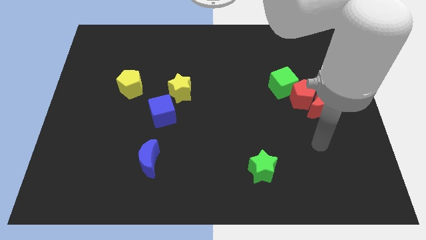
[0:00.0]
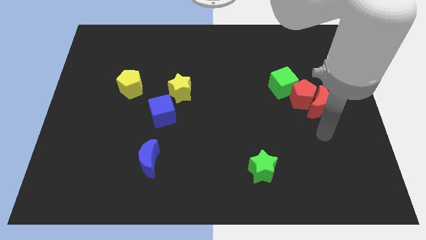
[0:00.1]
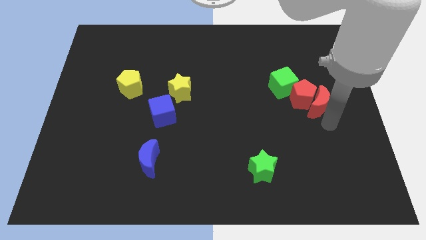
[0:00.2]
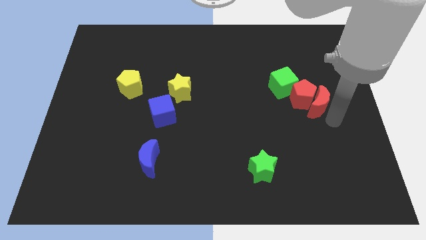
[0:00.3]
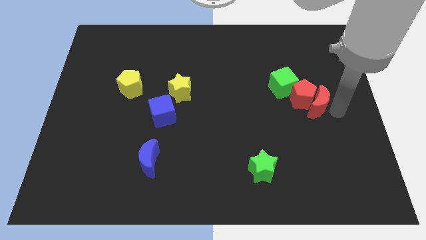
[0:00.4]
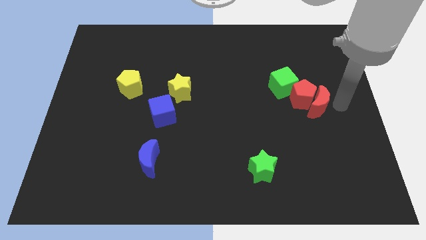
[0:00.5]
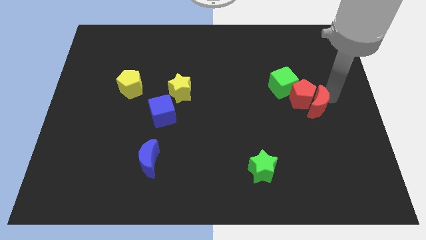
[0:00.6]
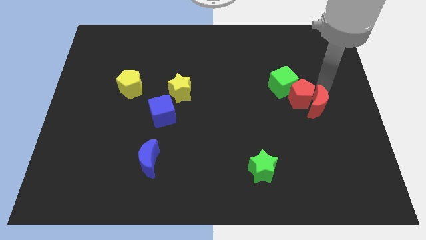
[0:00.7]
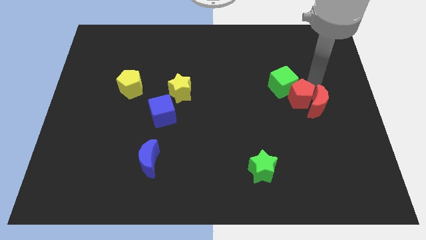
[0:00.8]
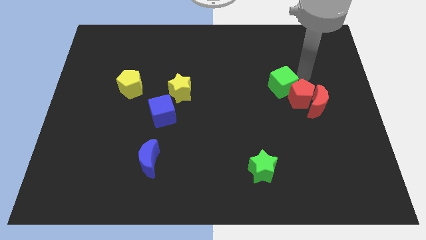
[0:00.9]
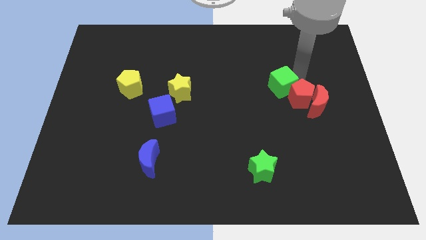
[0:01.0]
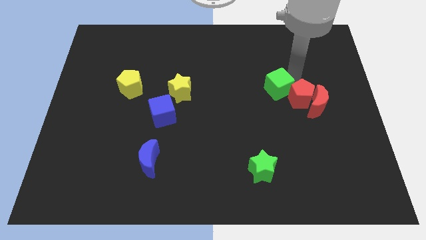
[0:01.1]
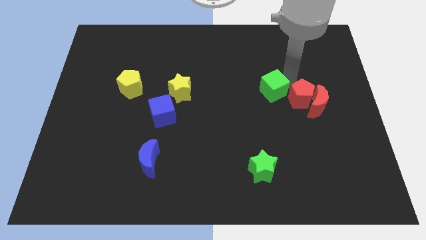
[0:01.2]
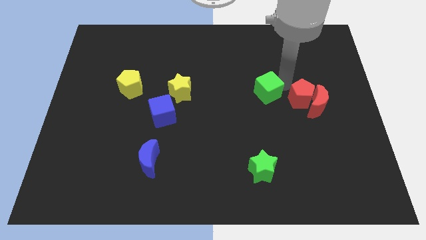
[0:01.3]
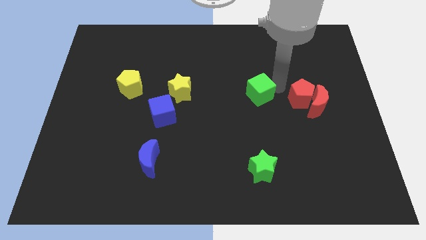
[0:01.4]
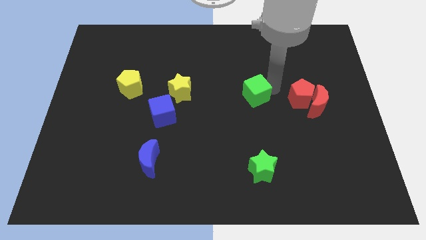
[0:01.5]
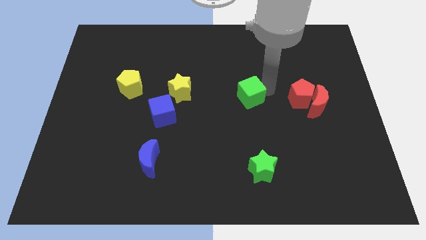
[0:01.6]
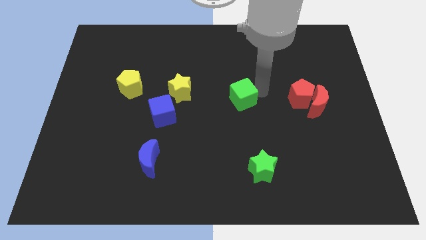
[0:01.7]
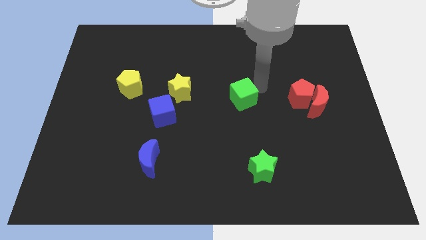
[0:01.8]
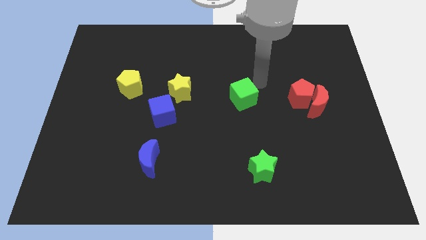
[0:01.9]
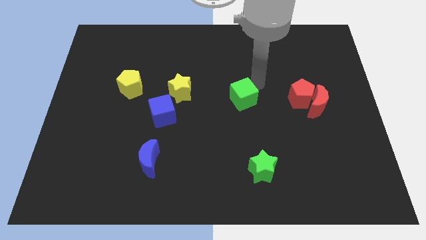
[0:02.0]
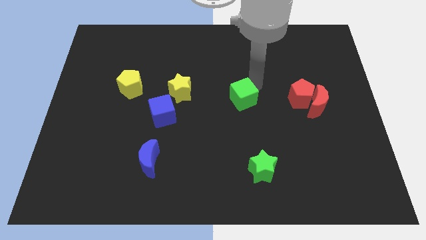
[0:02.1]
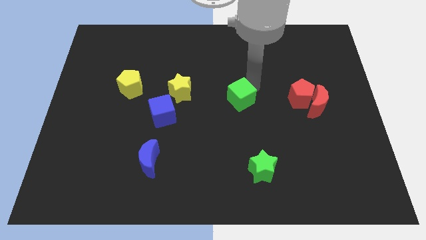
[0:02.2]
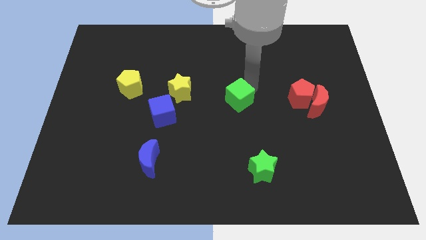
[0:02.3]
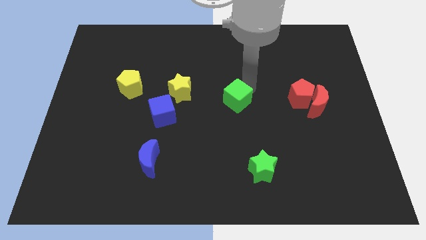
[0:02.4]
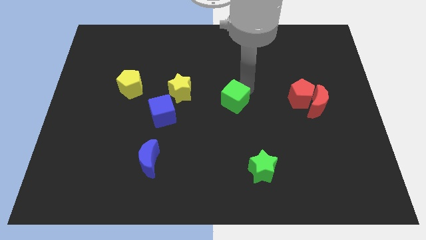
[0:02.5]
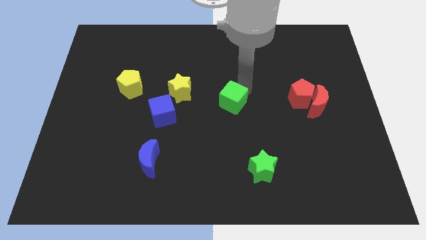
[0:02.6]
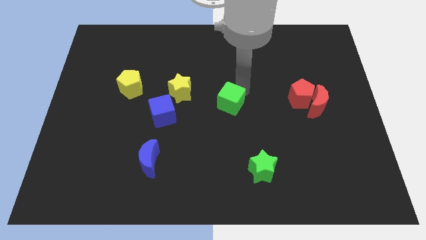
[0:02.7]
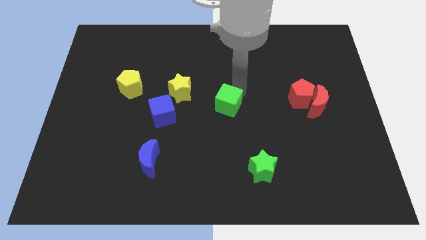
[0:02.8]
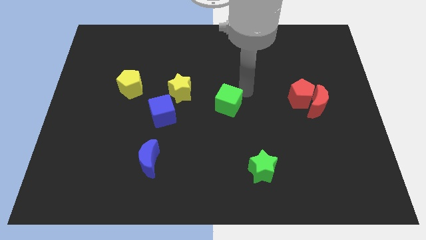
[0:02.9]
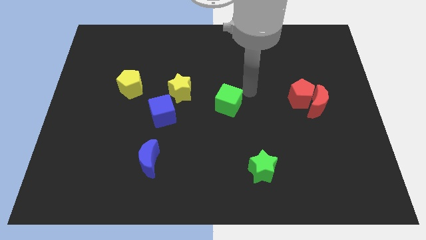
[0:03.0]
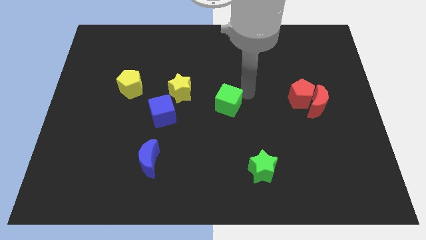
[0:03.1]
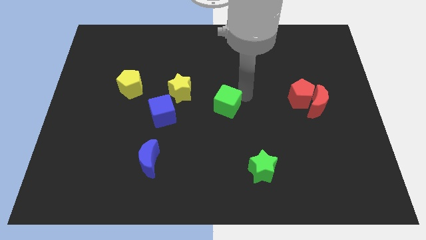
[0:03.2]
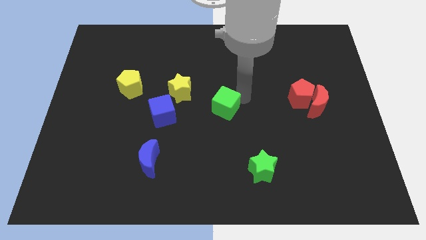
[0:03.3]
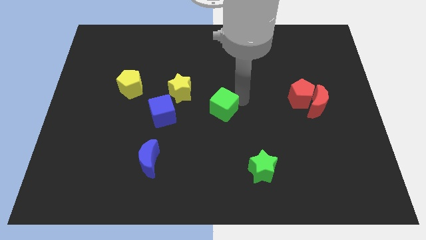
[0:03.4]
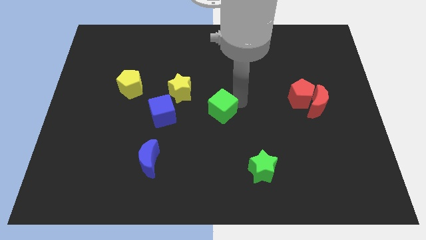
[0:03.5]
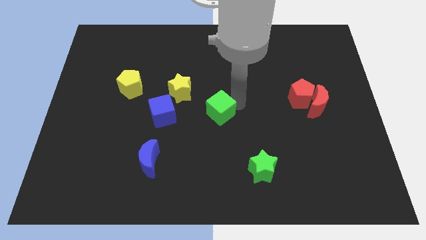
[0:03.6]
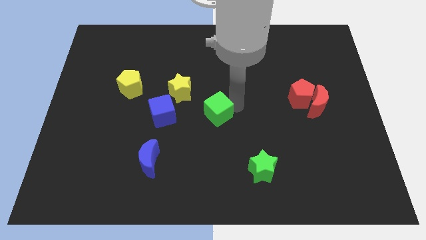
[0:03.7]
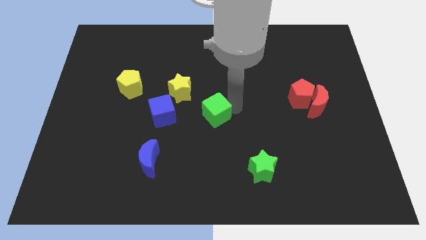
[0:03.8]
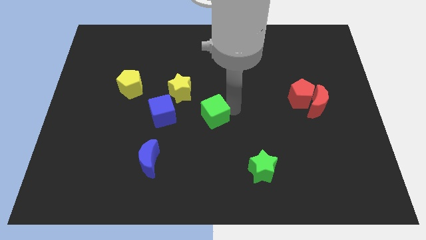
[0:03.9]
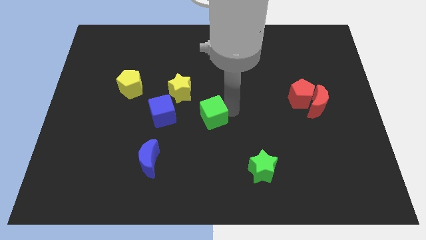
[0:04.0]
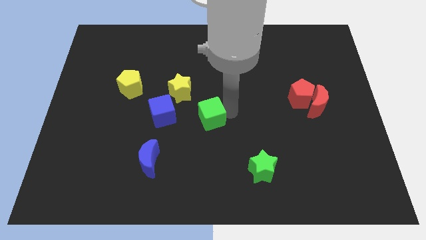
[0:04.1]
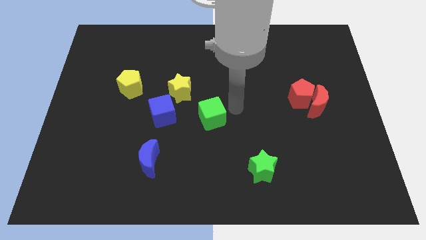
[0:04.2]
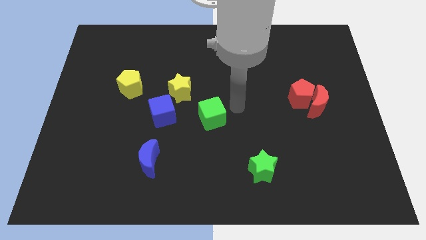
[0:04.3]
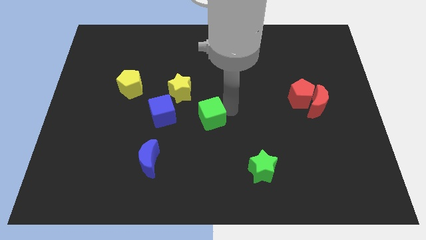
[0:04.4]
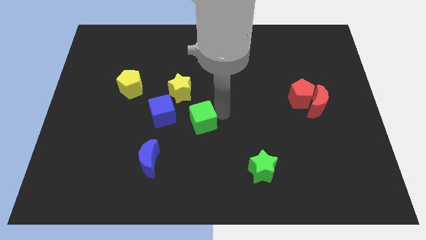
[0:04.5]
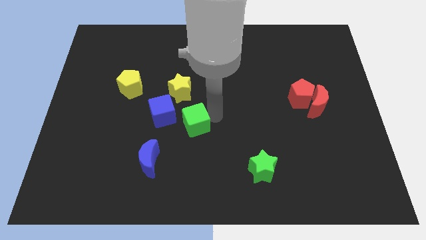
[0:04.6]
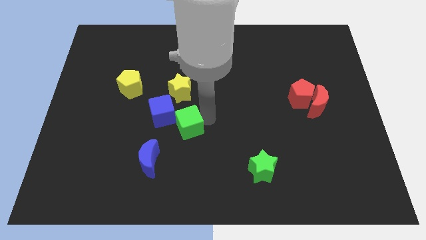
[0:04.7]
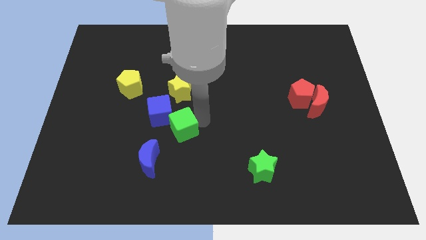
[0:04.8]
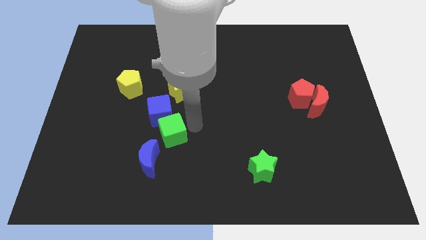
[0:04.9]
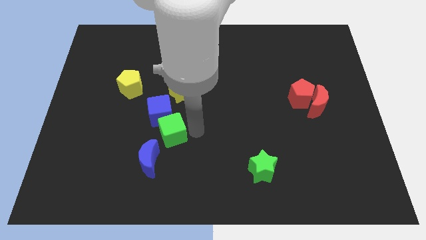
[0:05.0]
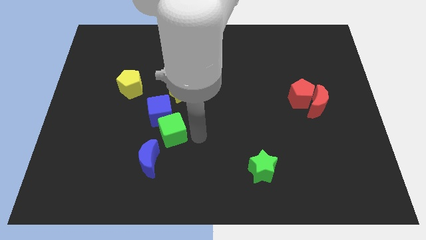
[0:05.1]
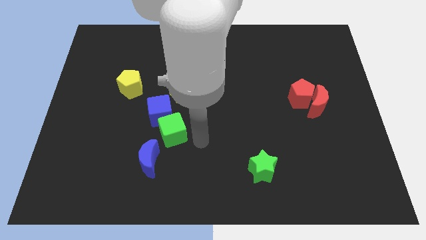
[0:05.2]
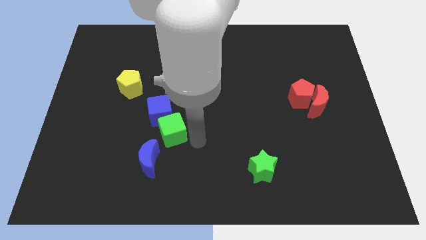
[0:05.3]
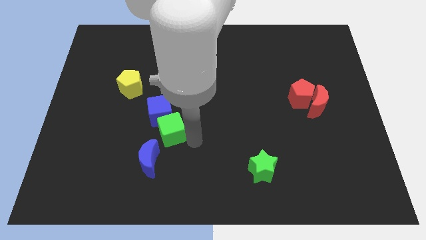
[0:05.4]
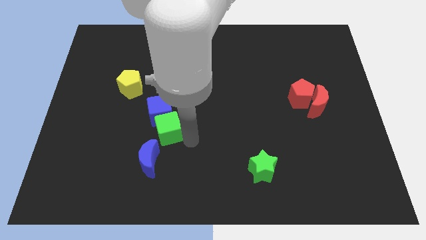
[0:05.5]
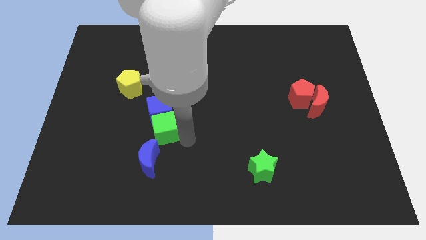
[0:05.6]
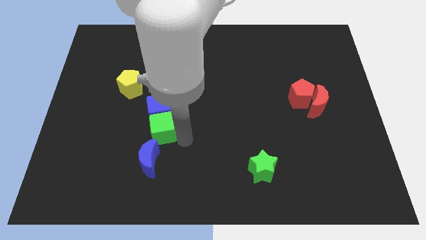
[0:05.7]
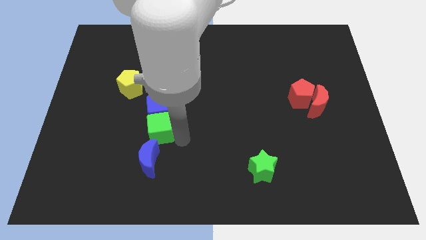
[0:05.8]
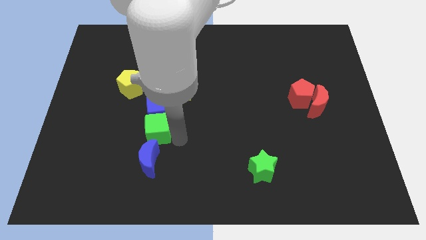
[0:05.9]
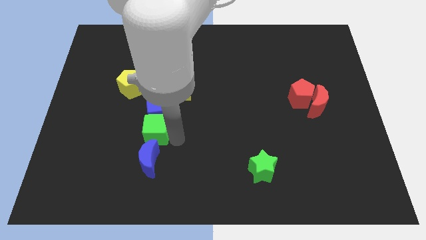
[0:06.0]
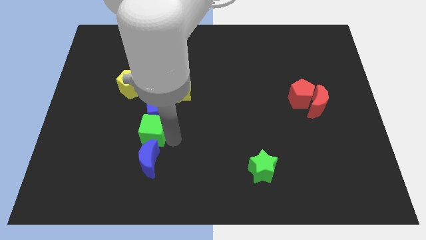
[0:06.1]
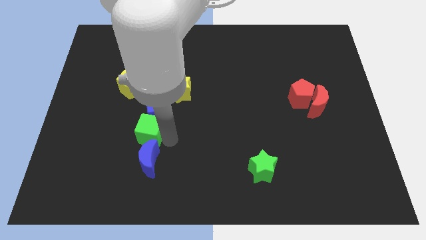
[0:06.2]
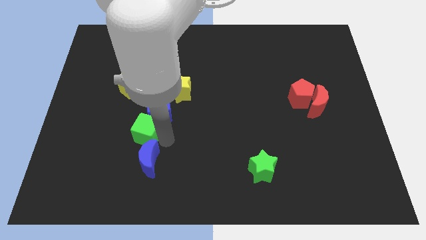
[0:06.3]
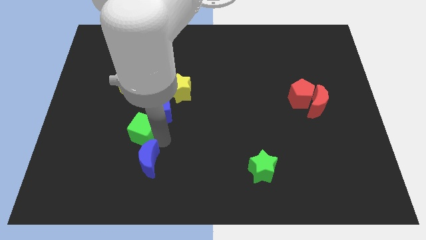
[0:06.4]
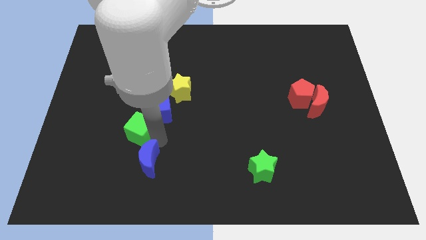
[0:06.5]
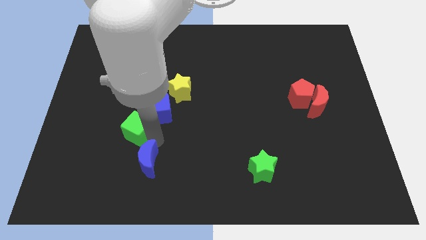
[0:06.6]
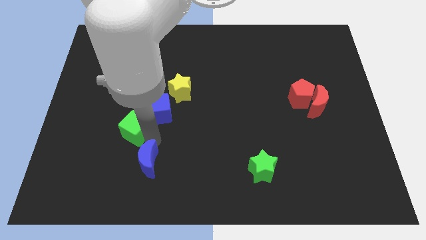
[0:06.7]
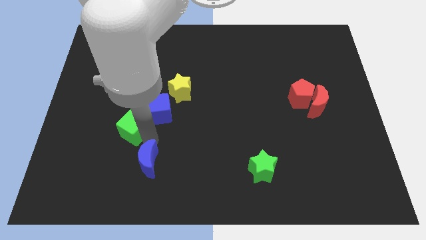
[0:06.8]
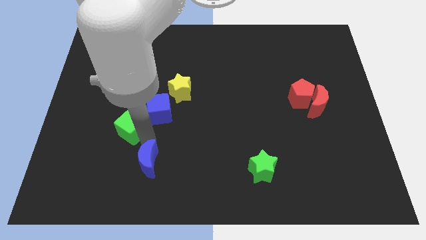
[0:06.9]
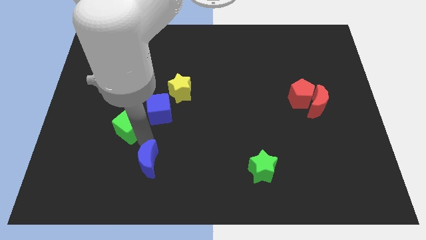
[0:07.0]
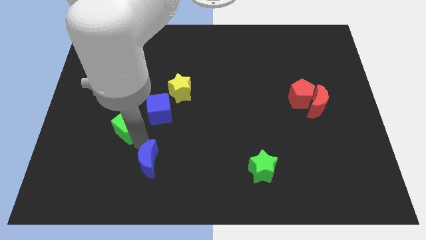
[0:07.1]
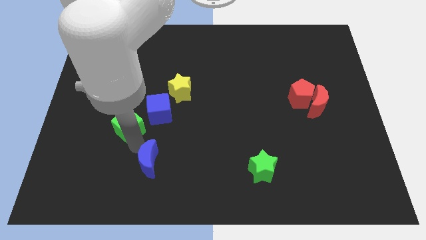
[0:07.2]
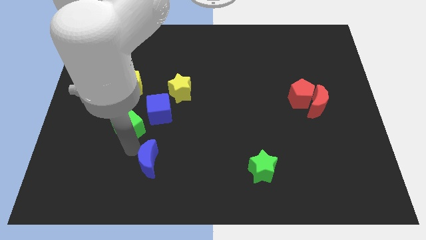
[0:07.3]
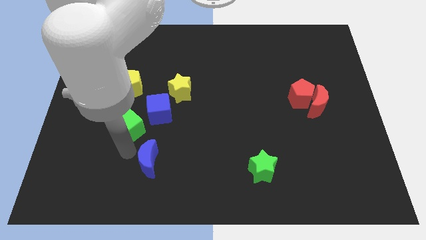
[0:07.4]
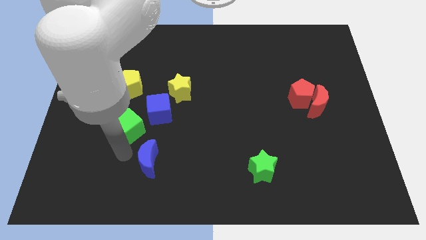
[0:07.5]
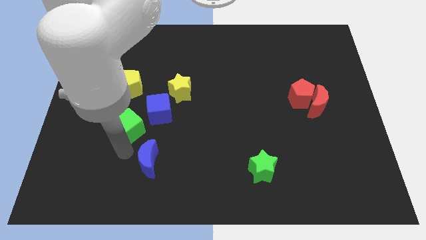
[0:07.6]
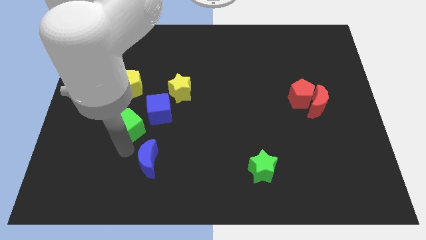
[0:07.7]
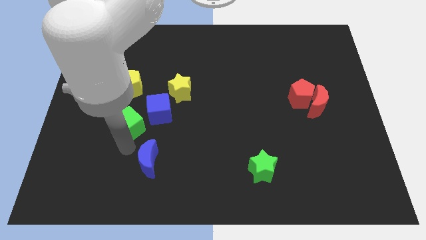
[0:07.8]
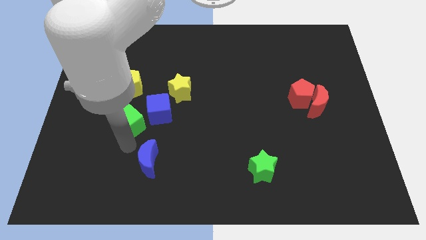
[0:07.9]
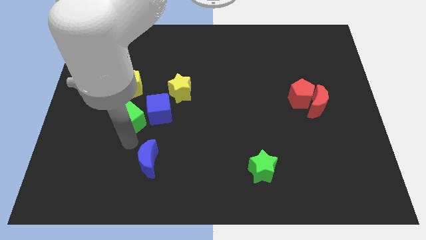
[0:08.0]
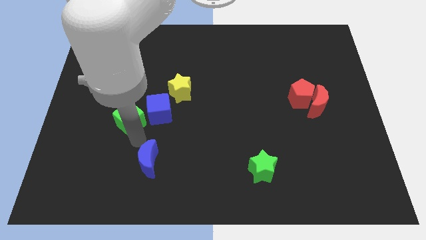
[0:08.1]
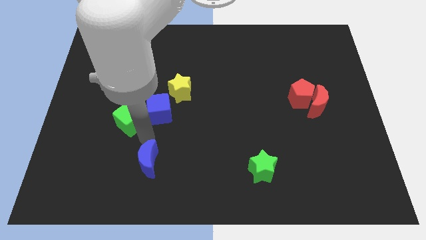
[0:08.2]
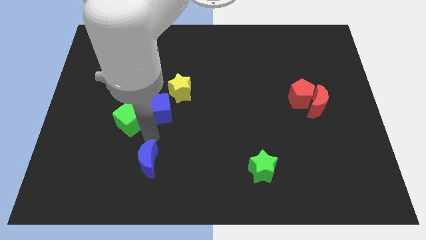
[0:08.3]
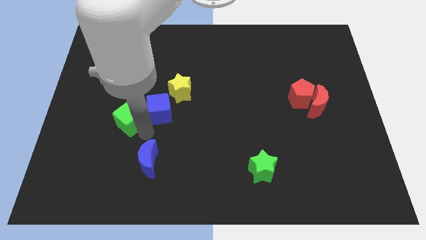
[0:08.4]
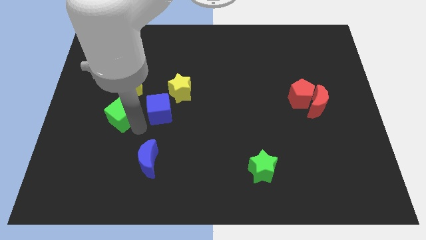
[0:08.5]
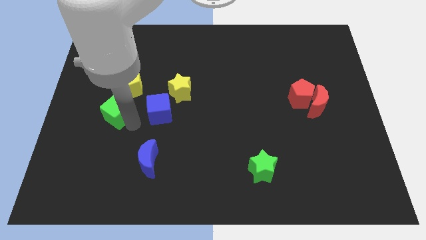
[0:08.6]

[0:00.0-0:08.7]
put the green cube diagonally down and to the left of the yellow pentagon
